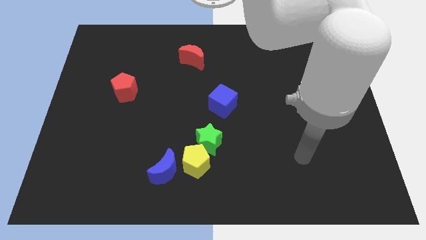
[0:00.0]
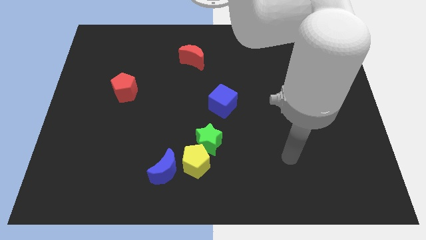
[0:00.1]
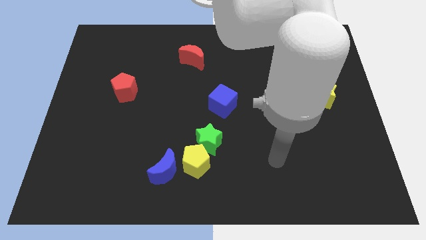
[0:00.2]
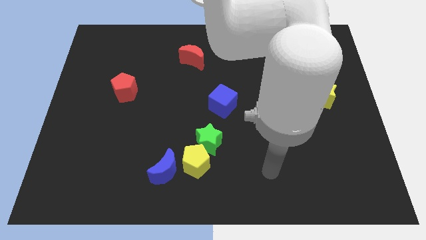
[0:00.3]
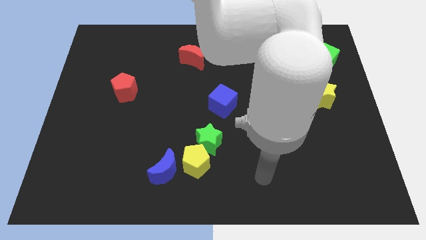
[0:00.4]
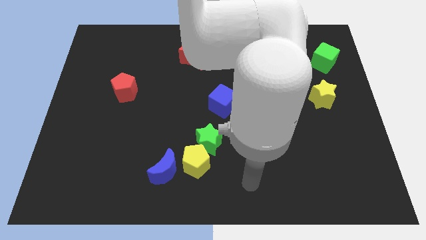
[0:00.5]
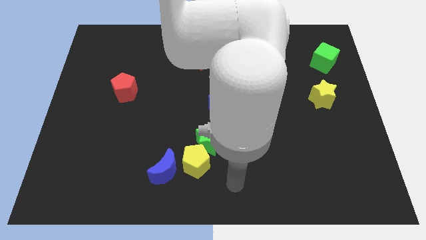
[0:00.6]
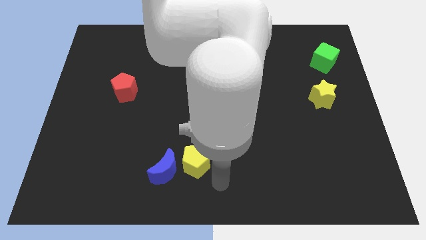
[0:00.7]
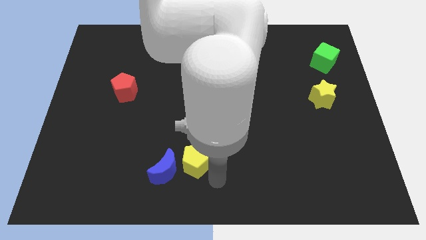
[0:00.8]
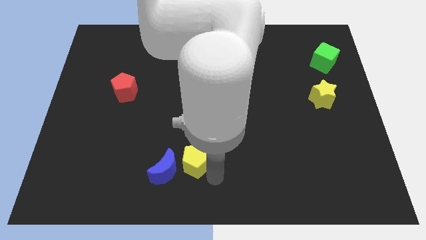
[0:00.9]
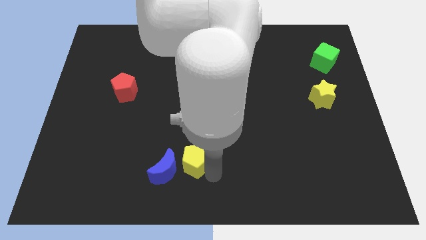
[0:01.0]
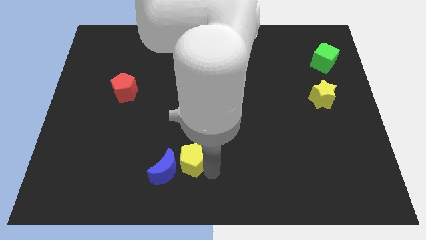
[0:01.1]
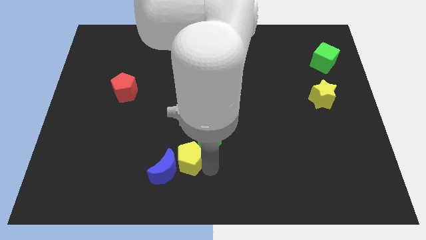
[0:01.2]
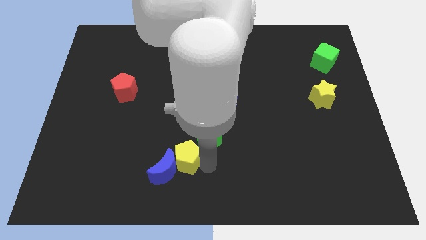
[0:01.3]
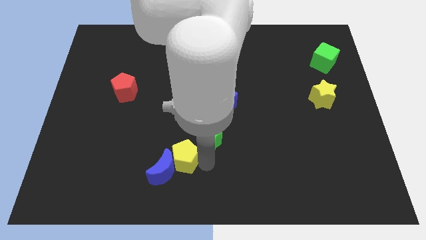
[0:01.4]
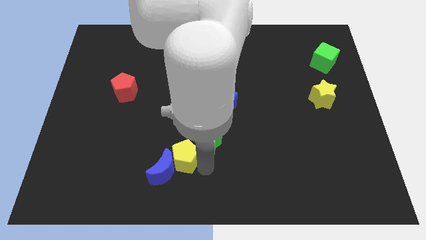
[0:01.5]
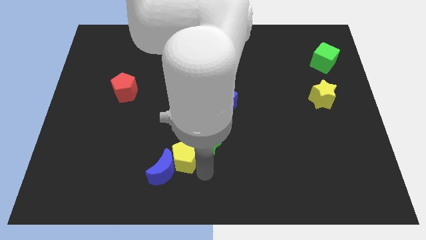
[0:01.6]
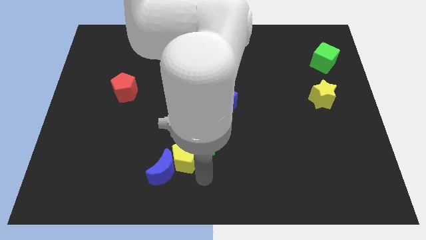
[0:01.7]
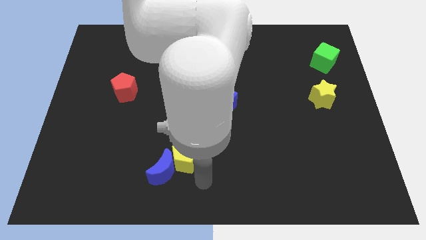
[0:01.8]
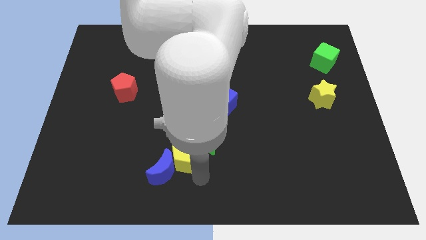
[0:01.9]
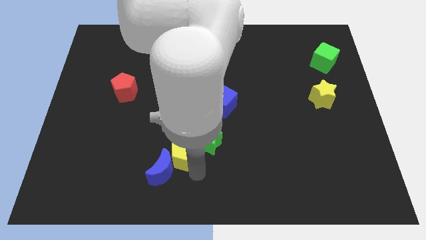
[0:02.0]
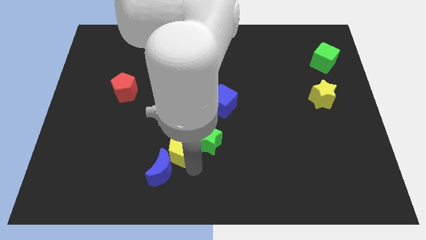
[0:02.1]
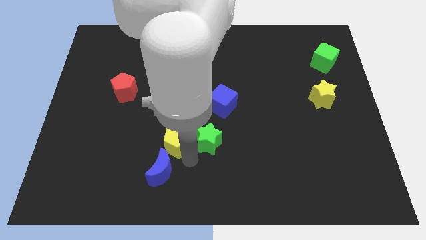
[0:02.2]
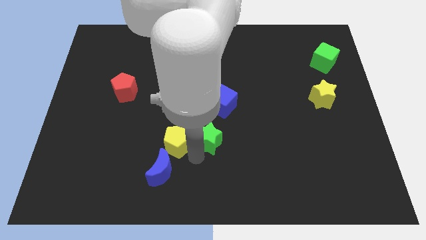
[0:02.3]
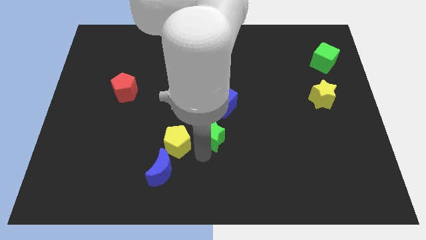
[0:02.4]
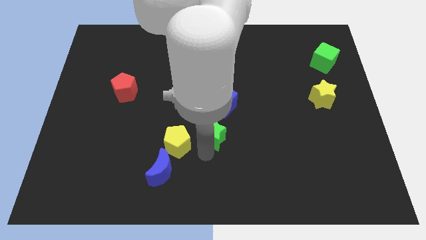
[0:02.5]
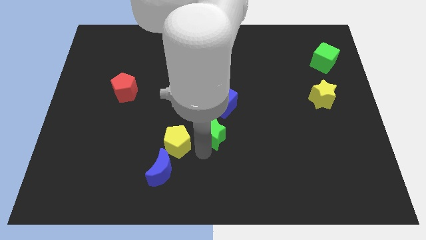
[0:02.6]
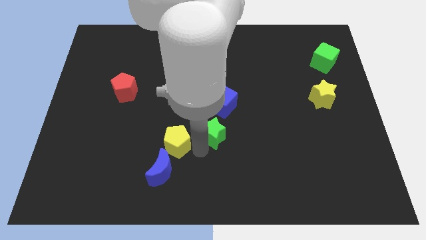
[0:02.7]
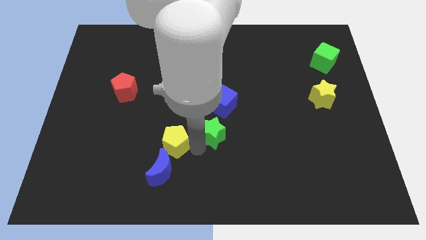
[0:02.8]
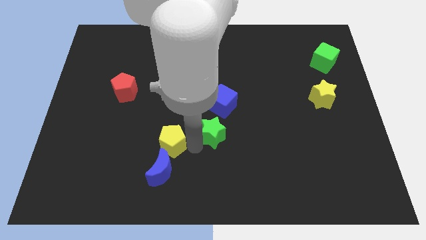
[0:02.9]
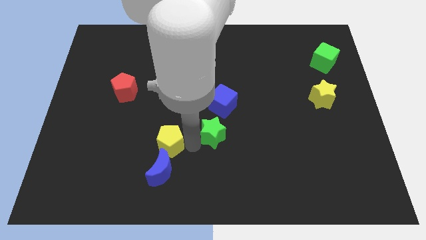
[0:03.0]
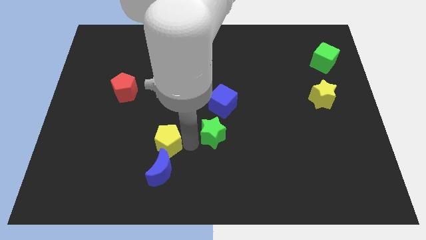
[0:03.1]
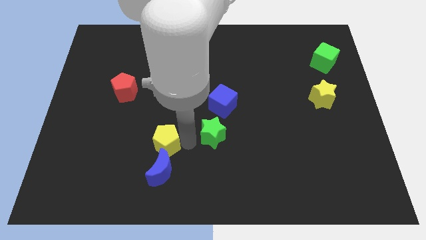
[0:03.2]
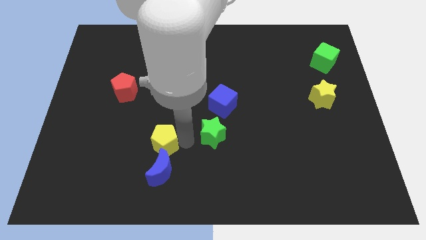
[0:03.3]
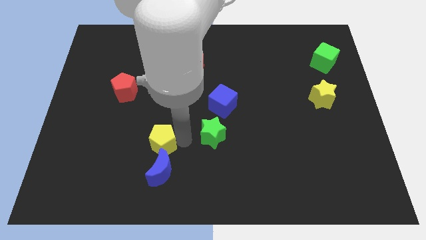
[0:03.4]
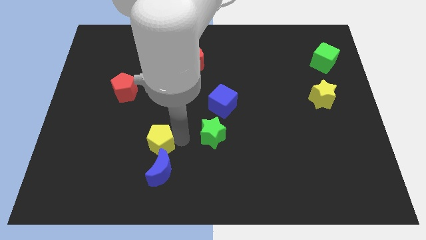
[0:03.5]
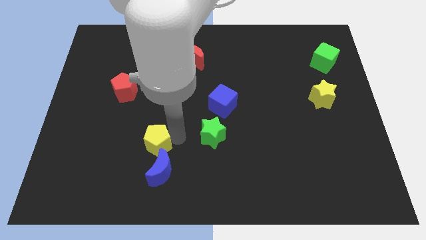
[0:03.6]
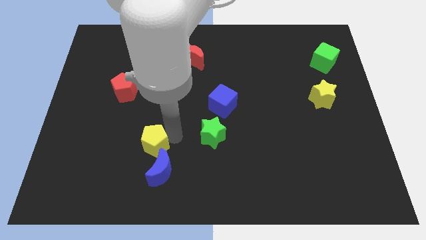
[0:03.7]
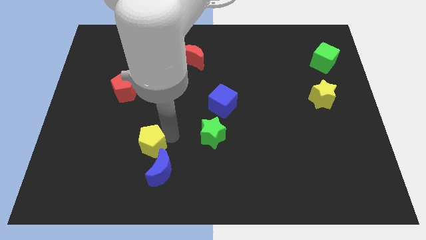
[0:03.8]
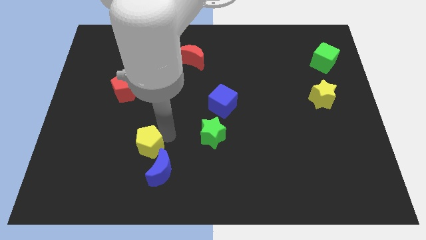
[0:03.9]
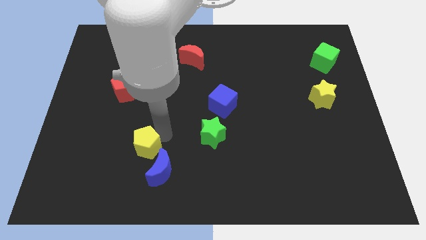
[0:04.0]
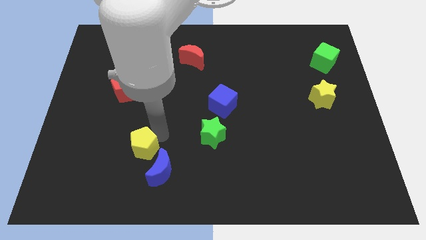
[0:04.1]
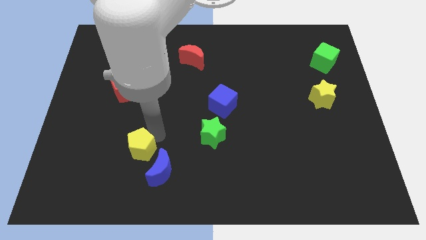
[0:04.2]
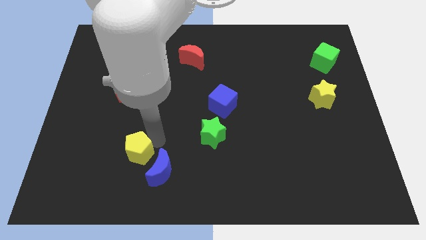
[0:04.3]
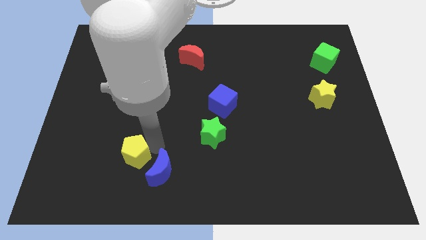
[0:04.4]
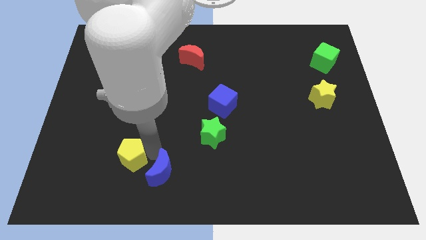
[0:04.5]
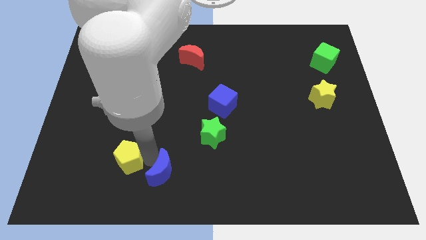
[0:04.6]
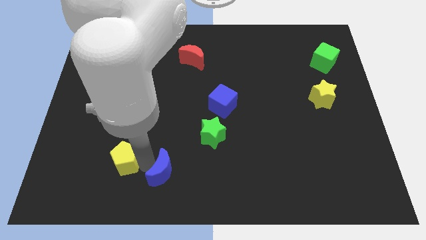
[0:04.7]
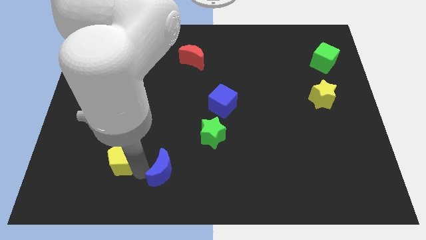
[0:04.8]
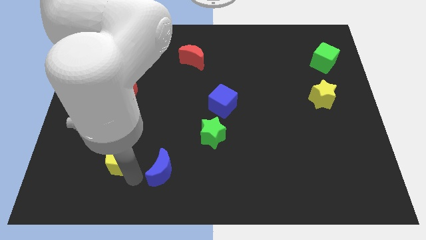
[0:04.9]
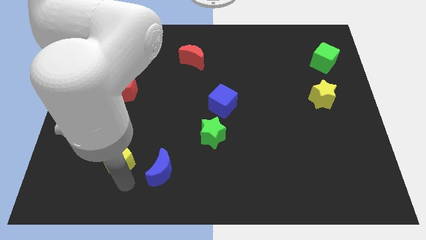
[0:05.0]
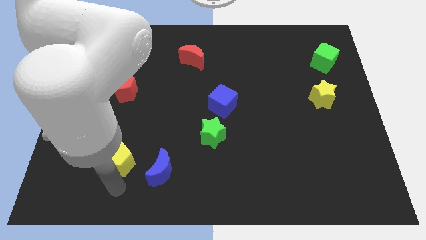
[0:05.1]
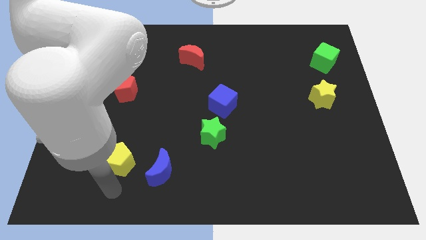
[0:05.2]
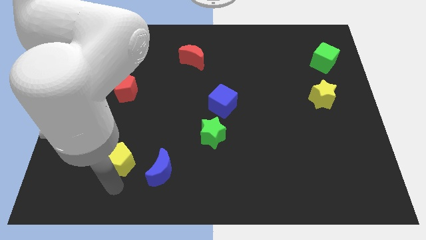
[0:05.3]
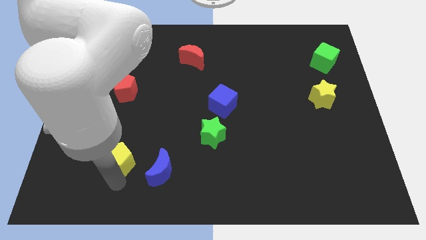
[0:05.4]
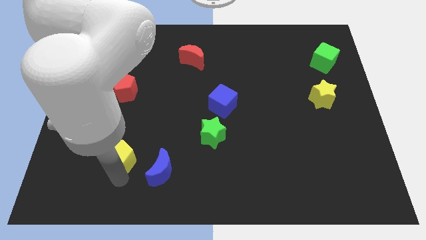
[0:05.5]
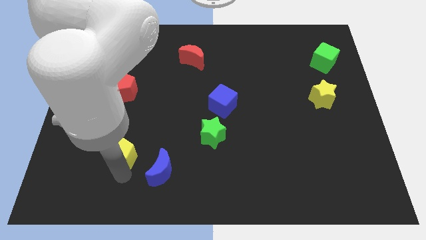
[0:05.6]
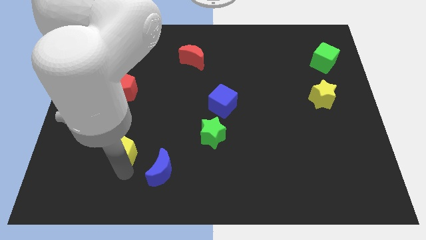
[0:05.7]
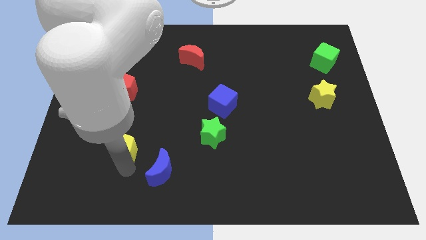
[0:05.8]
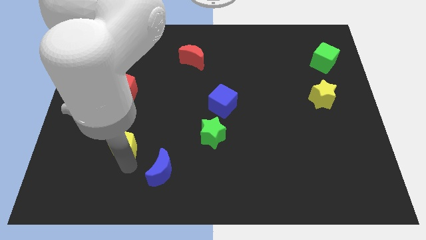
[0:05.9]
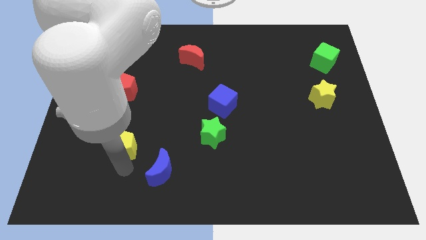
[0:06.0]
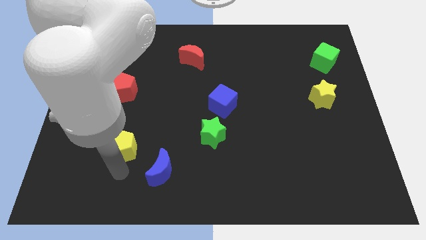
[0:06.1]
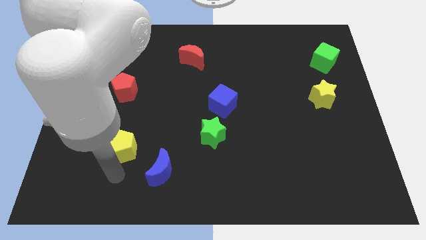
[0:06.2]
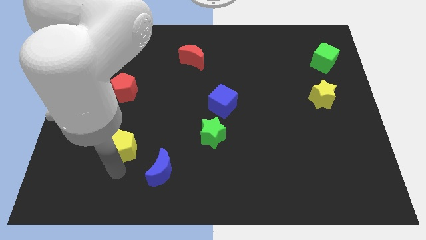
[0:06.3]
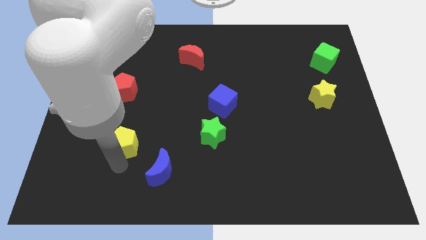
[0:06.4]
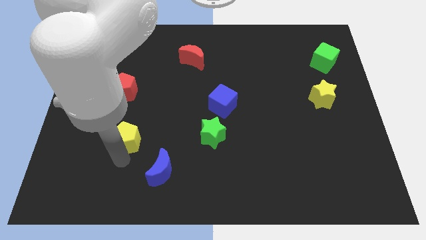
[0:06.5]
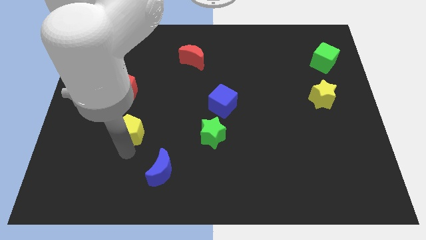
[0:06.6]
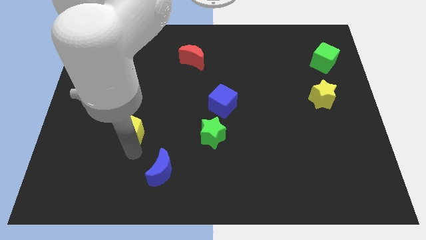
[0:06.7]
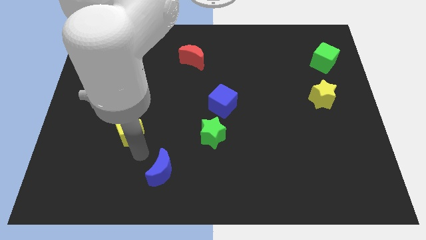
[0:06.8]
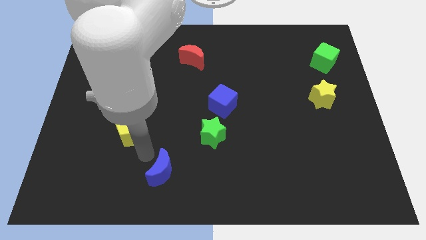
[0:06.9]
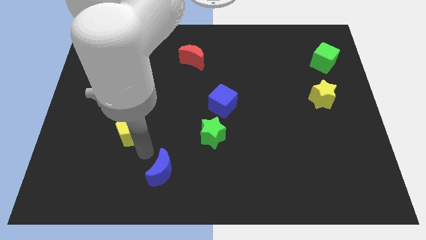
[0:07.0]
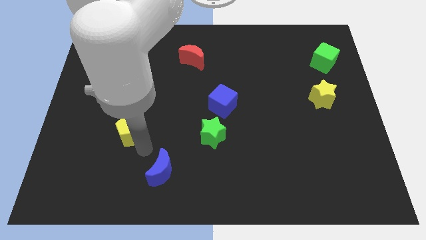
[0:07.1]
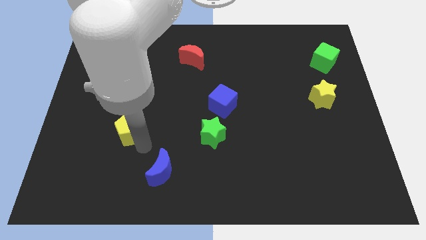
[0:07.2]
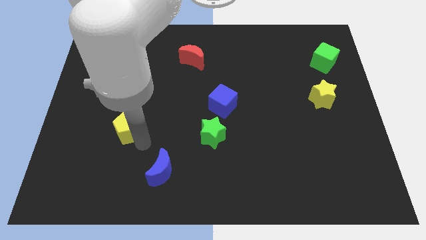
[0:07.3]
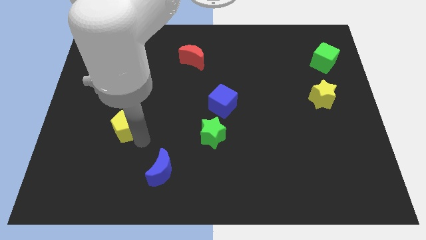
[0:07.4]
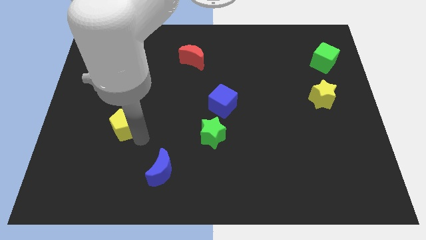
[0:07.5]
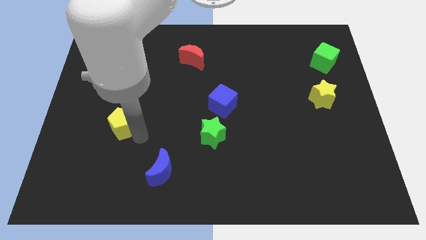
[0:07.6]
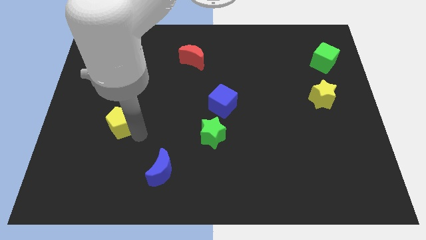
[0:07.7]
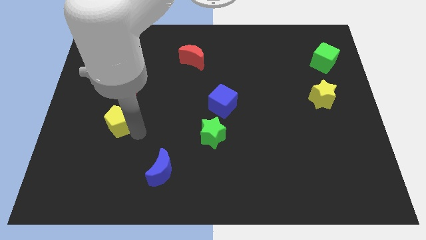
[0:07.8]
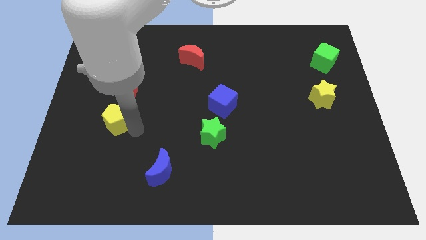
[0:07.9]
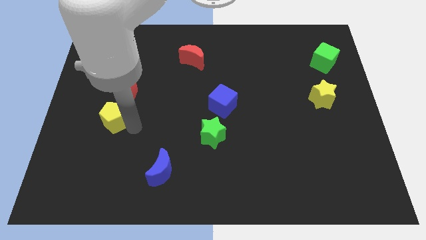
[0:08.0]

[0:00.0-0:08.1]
push the yellow pentagon upwards and to the left diagonally
